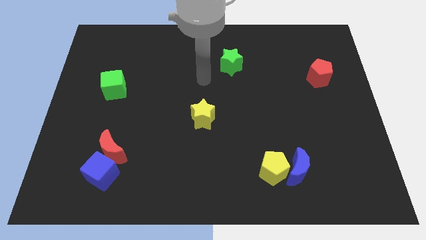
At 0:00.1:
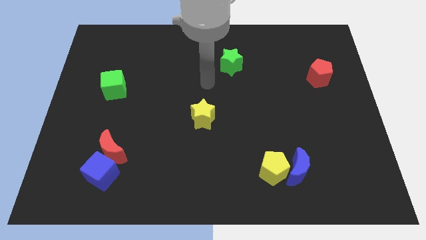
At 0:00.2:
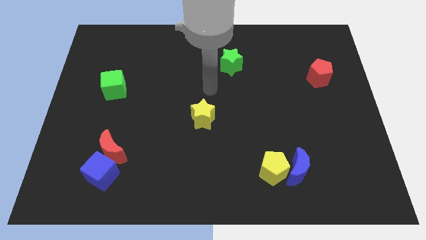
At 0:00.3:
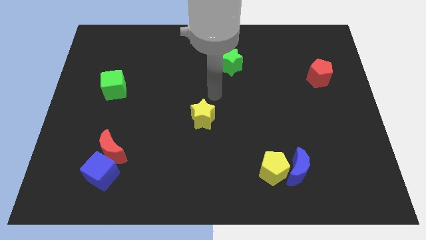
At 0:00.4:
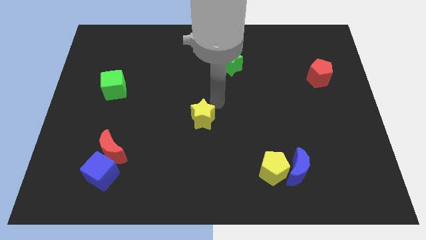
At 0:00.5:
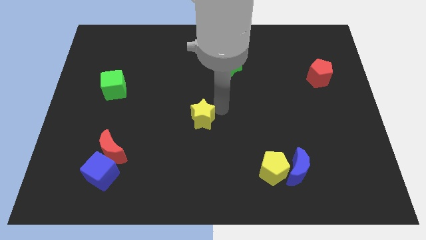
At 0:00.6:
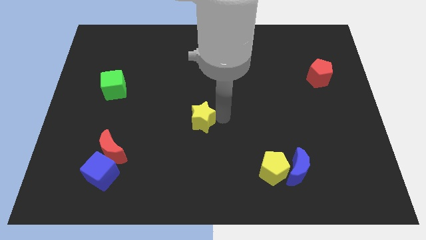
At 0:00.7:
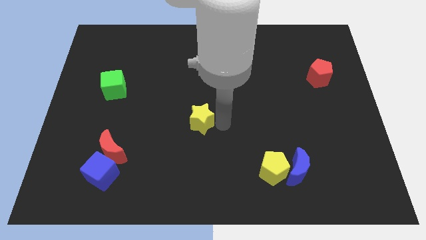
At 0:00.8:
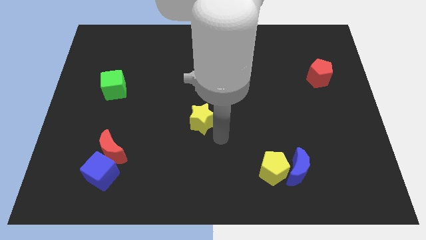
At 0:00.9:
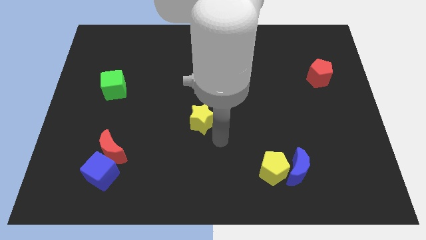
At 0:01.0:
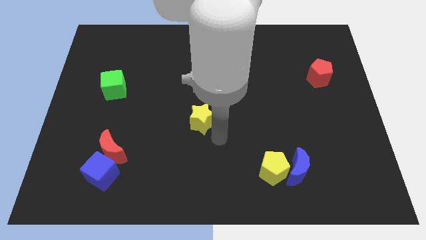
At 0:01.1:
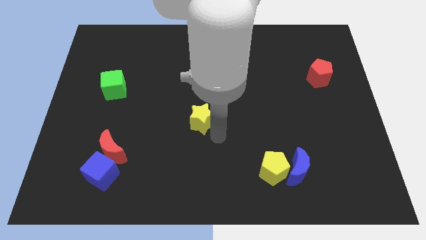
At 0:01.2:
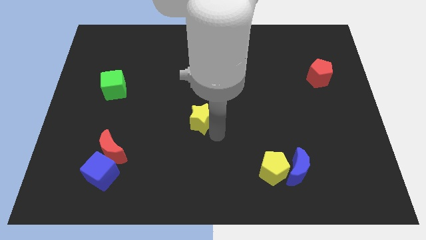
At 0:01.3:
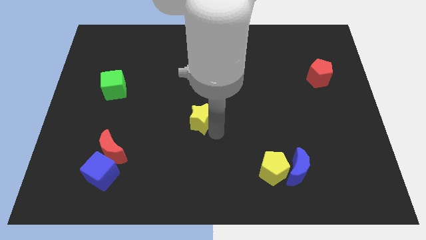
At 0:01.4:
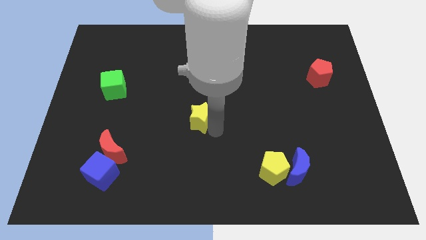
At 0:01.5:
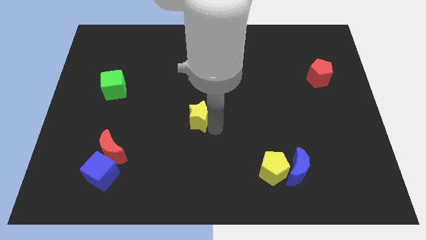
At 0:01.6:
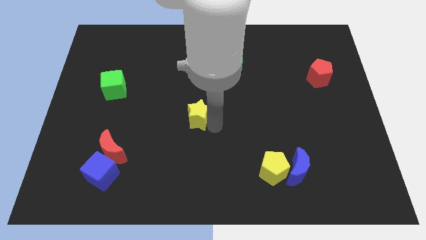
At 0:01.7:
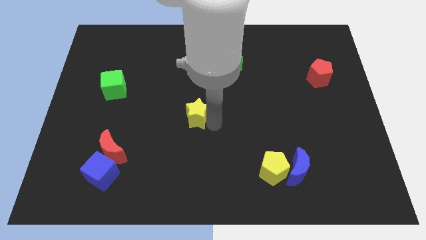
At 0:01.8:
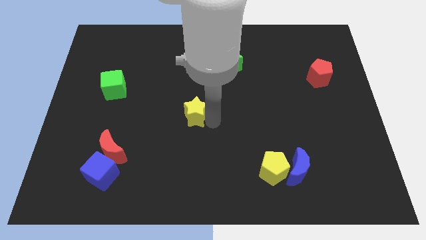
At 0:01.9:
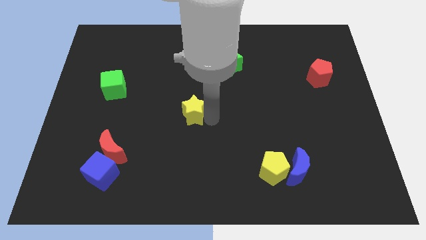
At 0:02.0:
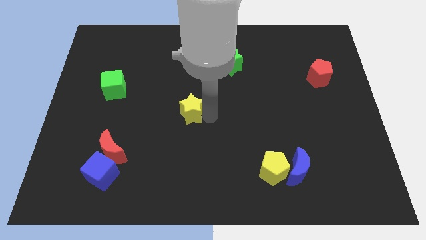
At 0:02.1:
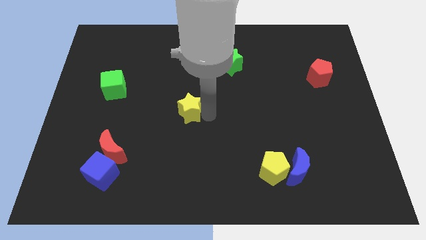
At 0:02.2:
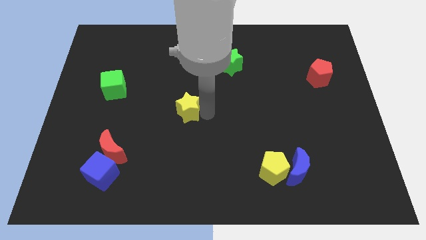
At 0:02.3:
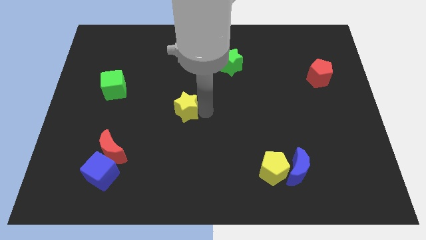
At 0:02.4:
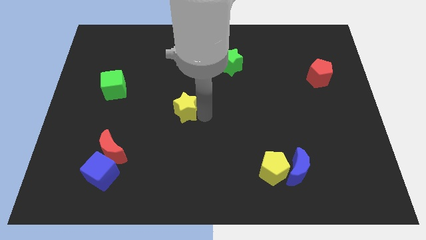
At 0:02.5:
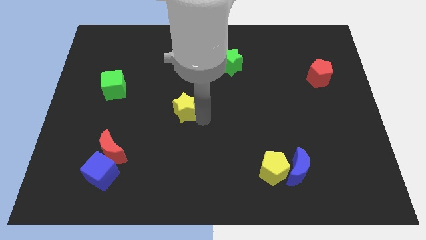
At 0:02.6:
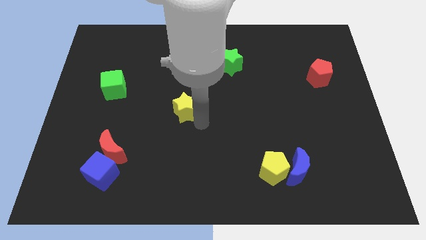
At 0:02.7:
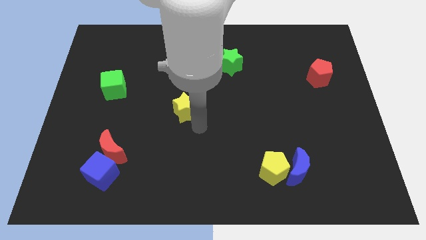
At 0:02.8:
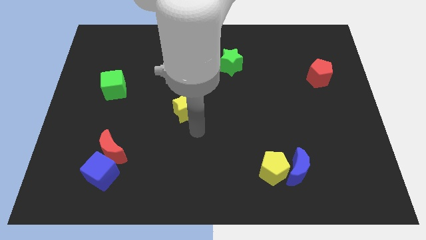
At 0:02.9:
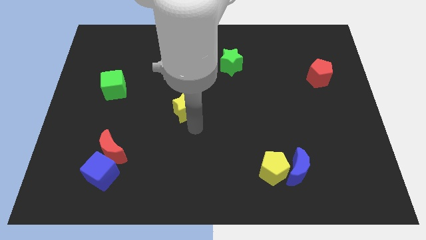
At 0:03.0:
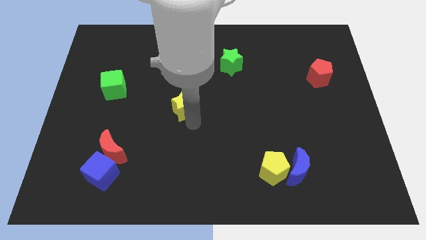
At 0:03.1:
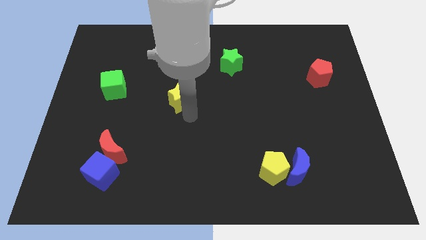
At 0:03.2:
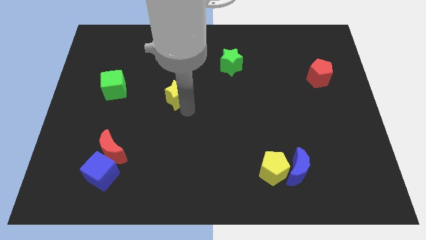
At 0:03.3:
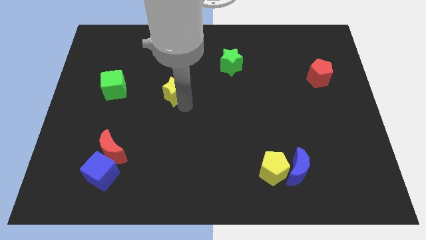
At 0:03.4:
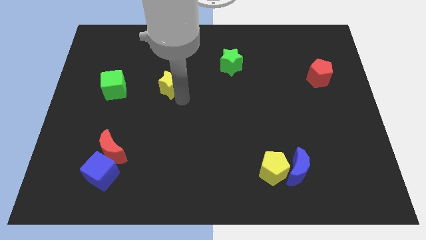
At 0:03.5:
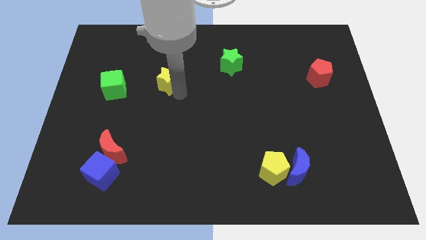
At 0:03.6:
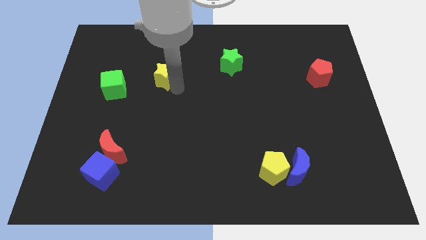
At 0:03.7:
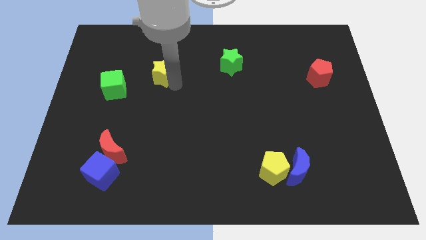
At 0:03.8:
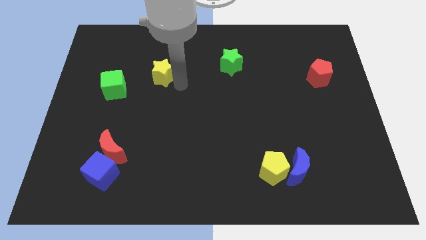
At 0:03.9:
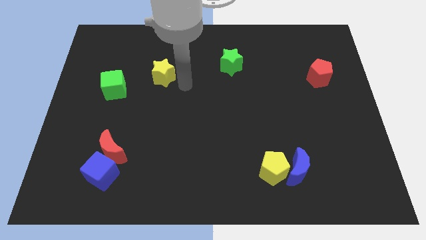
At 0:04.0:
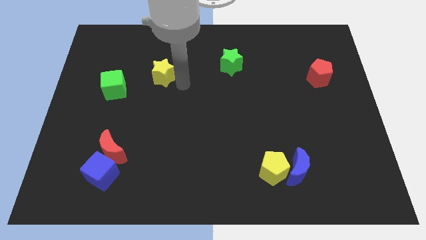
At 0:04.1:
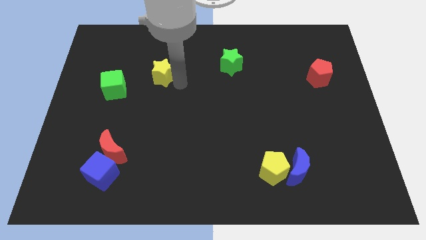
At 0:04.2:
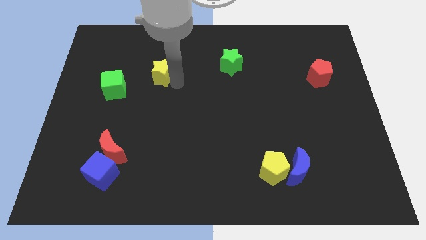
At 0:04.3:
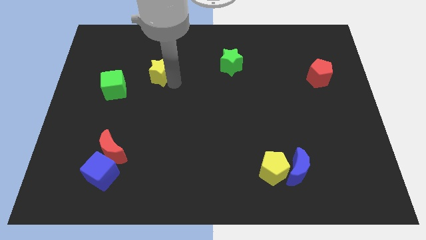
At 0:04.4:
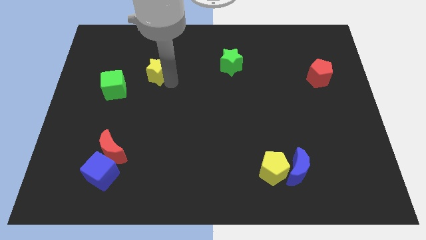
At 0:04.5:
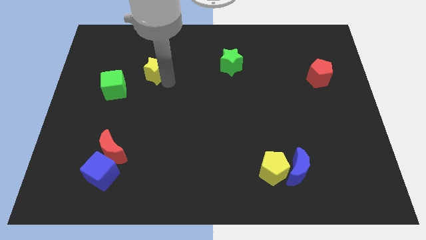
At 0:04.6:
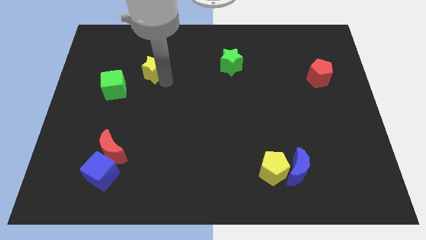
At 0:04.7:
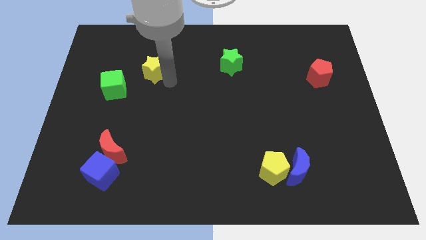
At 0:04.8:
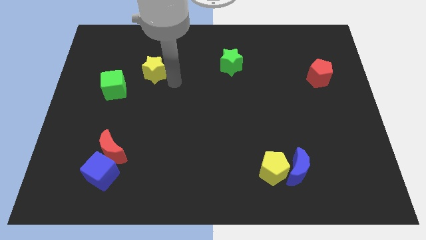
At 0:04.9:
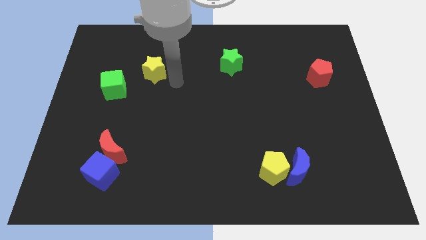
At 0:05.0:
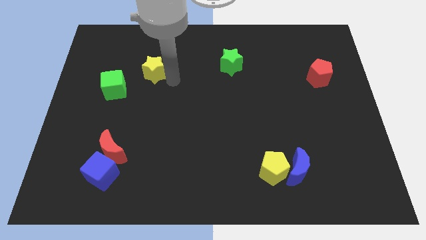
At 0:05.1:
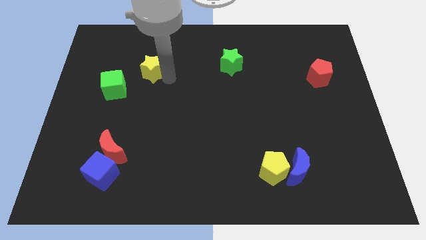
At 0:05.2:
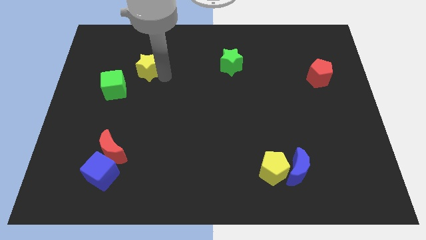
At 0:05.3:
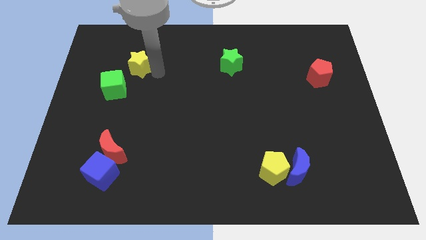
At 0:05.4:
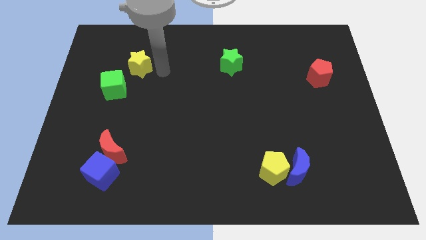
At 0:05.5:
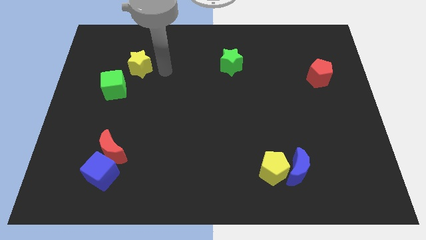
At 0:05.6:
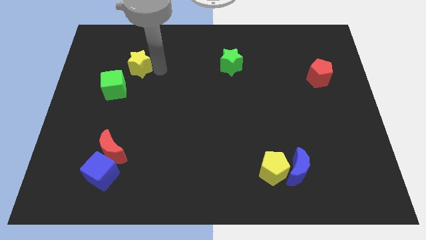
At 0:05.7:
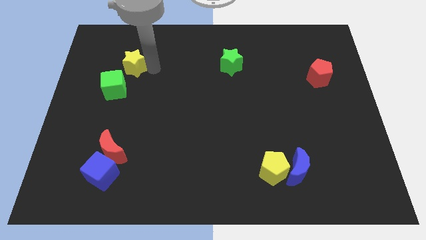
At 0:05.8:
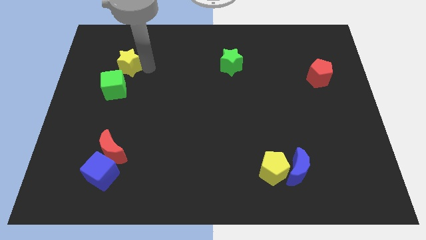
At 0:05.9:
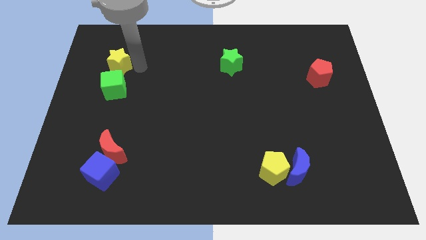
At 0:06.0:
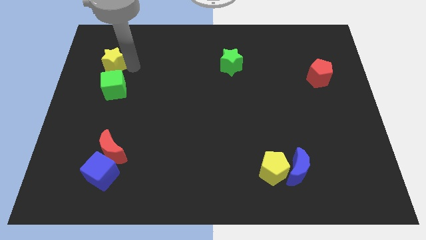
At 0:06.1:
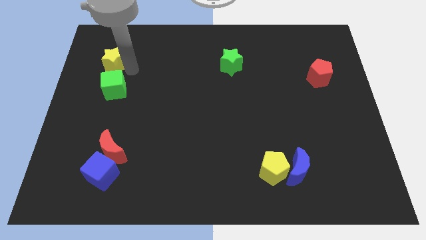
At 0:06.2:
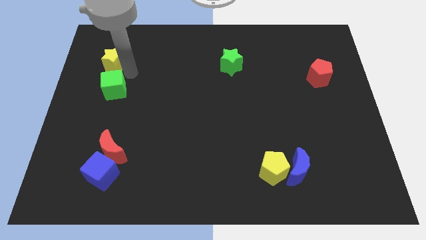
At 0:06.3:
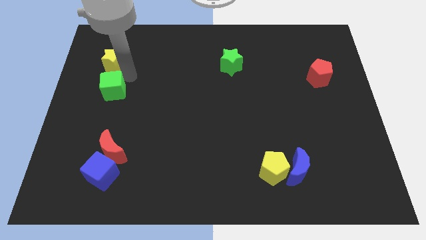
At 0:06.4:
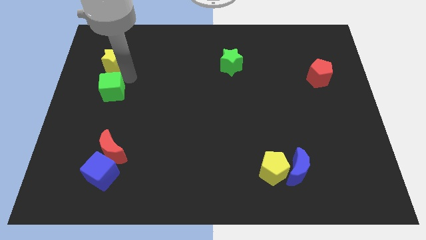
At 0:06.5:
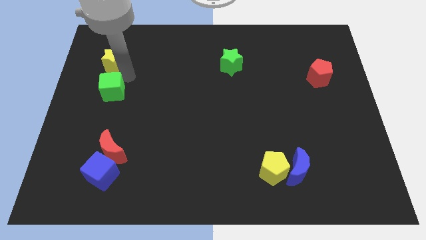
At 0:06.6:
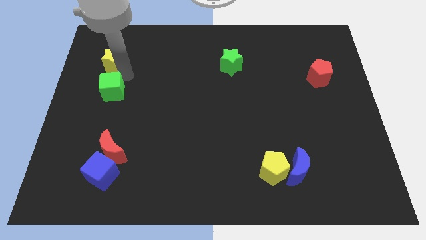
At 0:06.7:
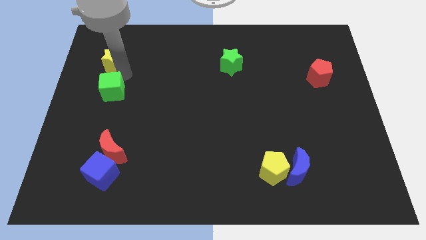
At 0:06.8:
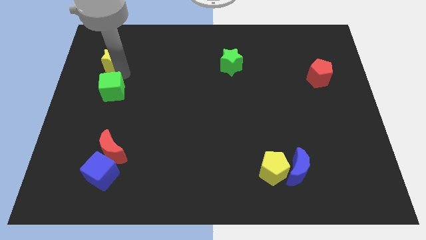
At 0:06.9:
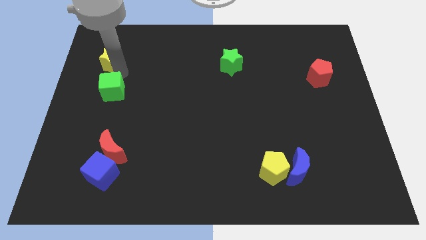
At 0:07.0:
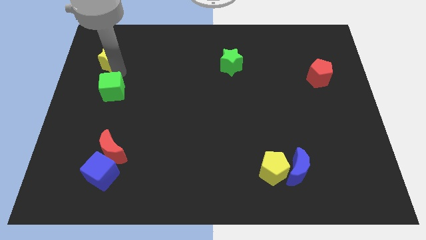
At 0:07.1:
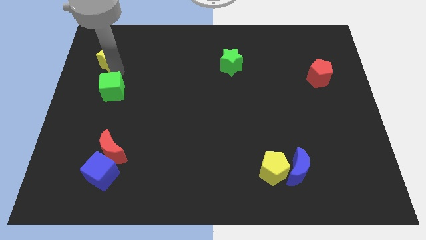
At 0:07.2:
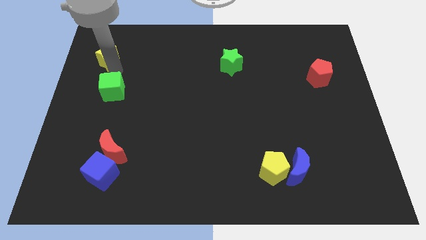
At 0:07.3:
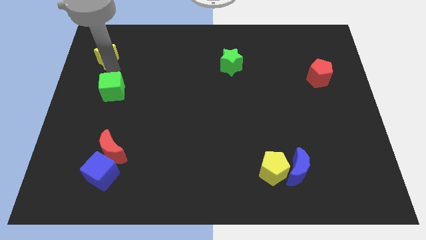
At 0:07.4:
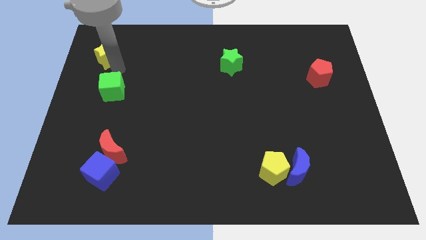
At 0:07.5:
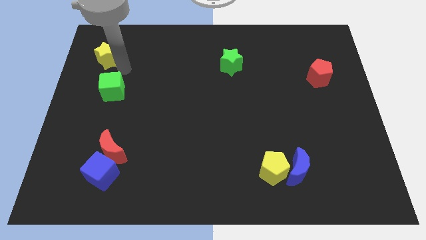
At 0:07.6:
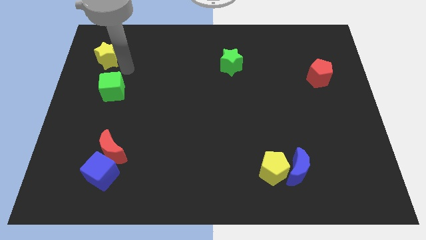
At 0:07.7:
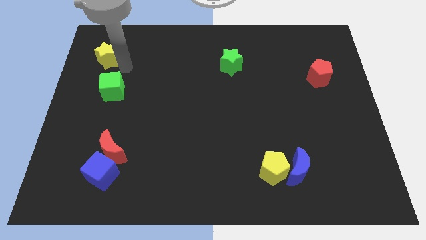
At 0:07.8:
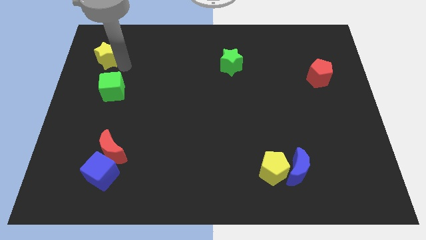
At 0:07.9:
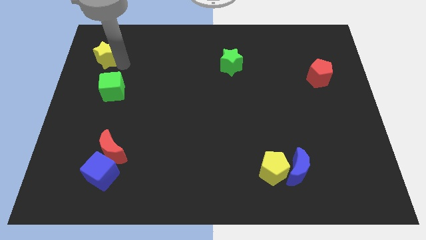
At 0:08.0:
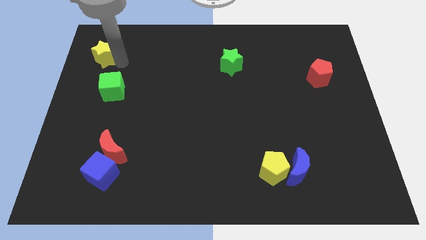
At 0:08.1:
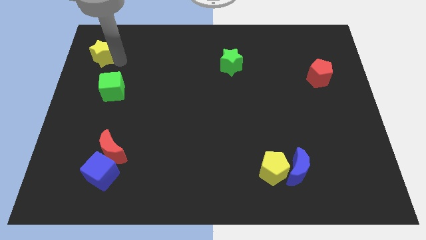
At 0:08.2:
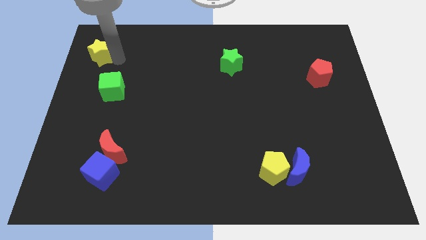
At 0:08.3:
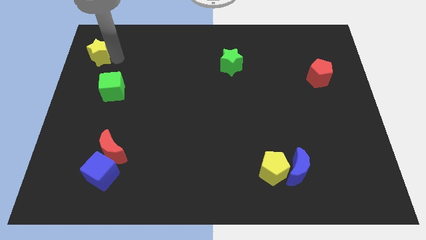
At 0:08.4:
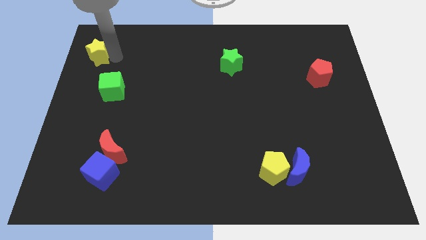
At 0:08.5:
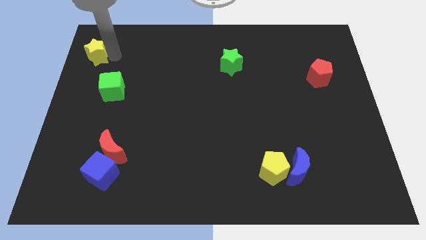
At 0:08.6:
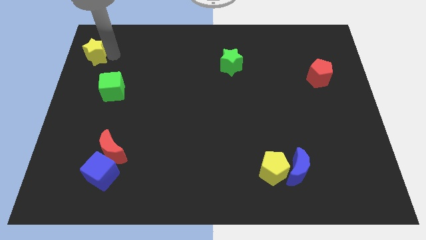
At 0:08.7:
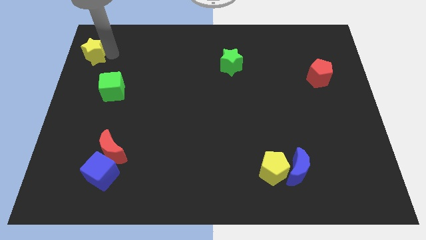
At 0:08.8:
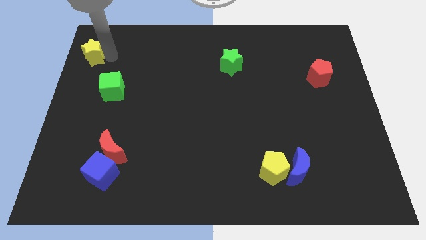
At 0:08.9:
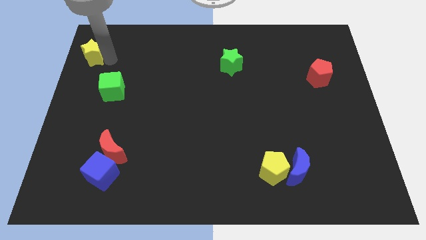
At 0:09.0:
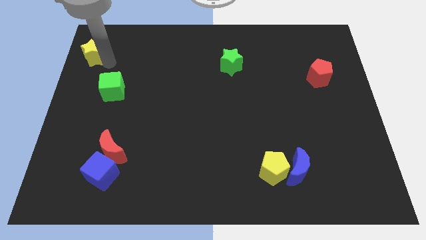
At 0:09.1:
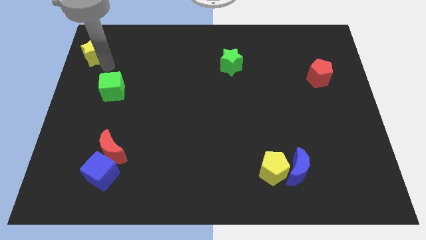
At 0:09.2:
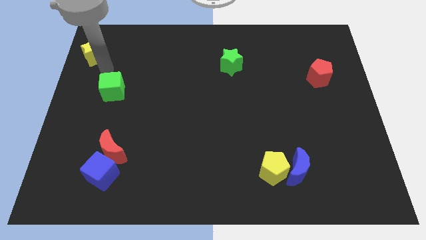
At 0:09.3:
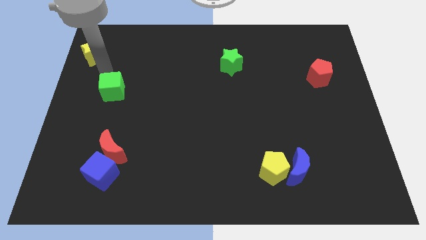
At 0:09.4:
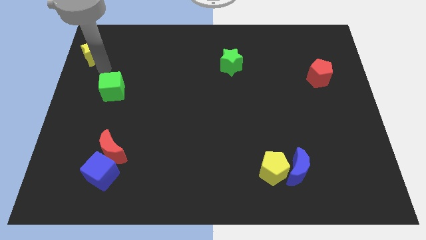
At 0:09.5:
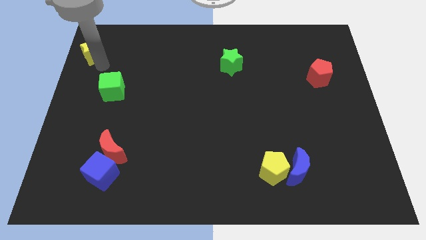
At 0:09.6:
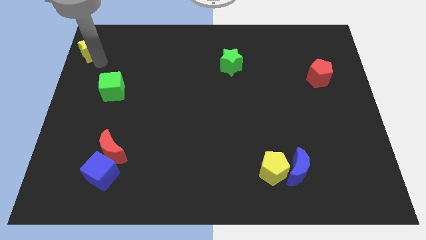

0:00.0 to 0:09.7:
push the yellow star to the top left
